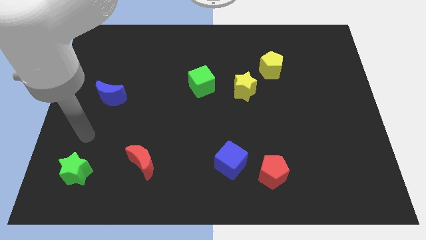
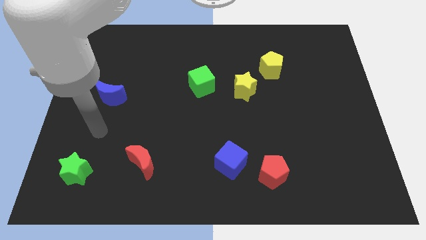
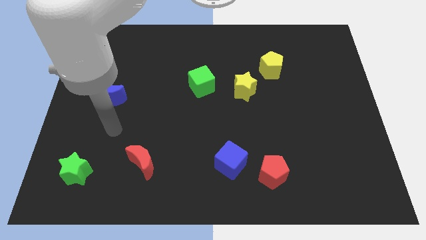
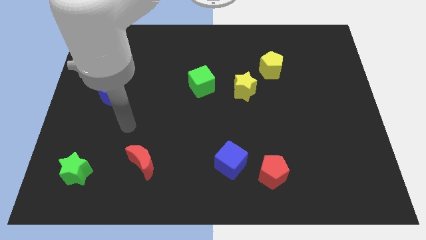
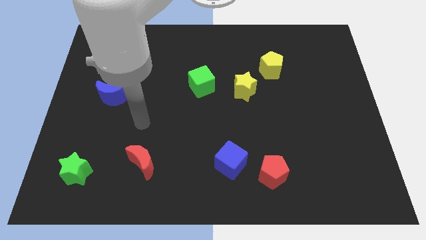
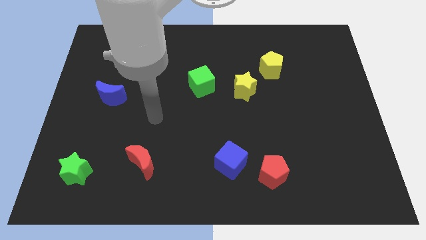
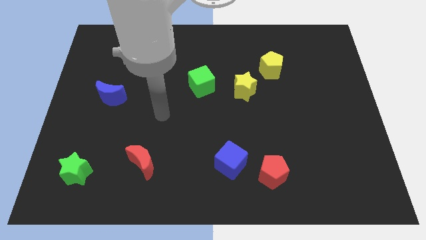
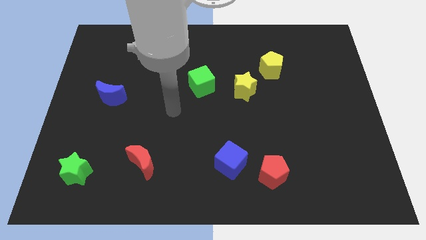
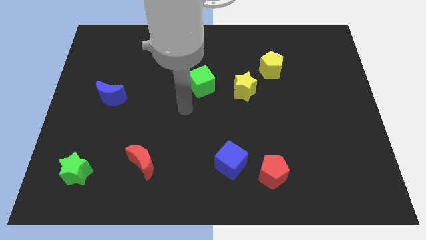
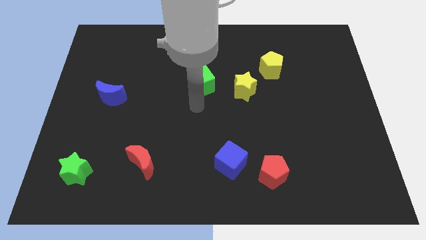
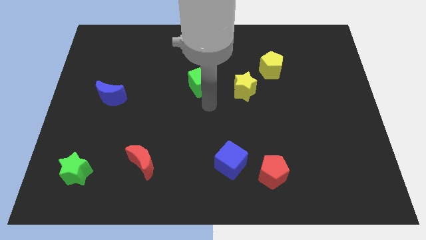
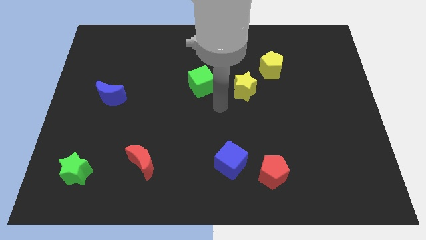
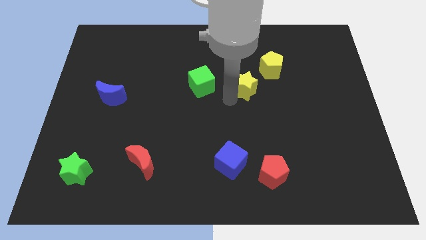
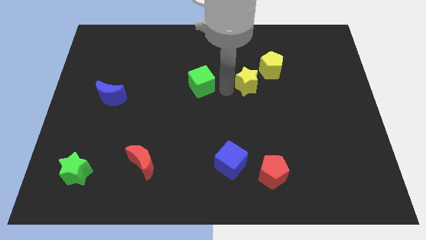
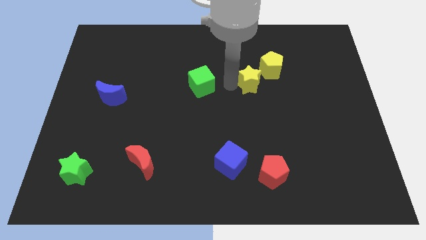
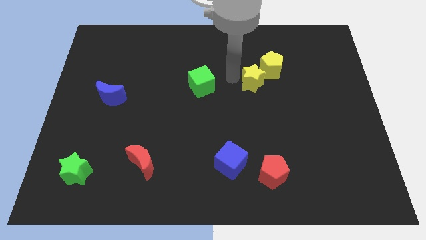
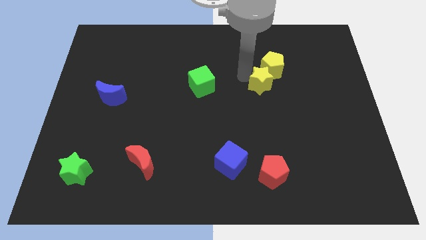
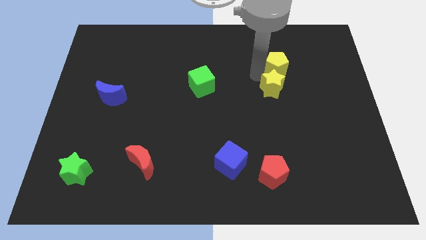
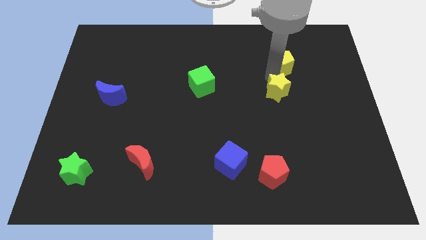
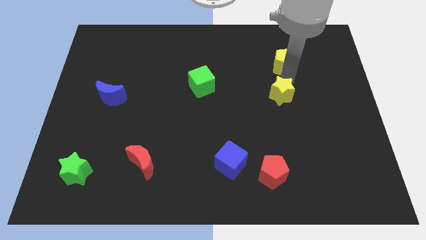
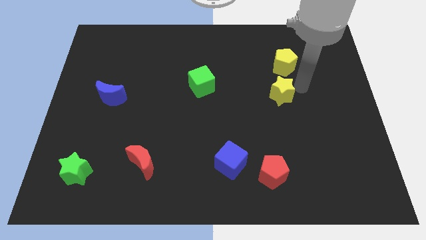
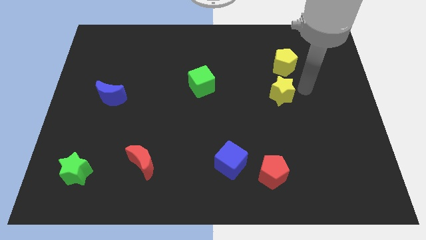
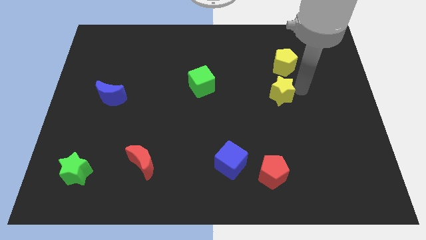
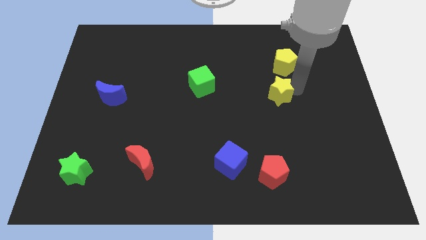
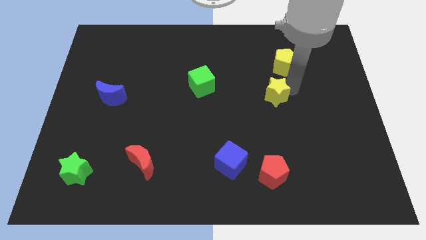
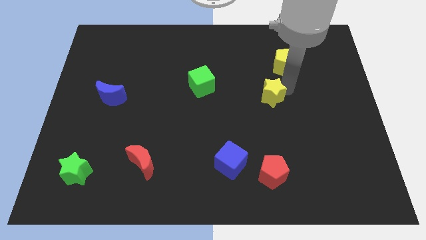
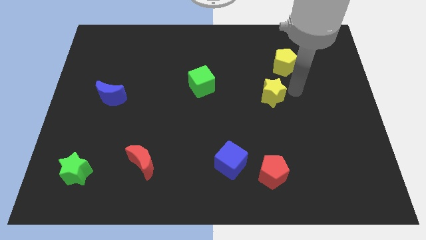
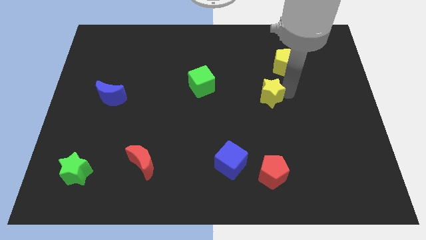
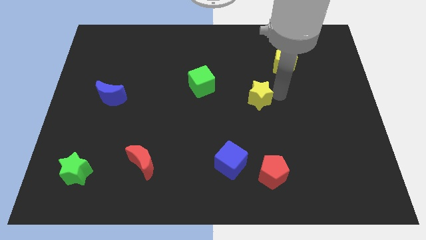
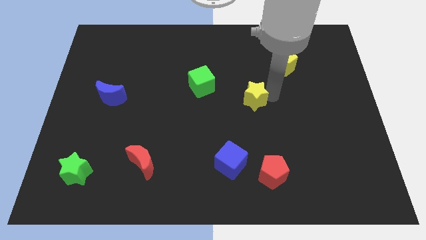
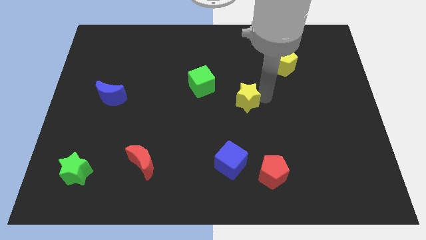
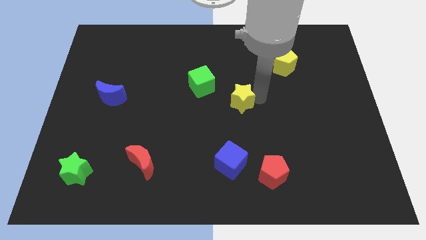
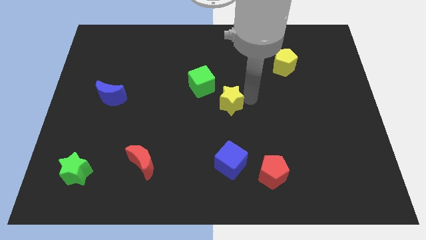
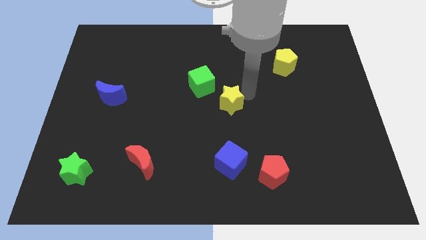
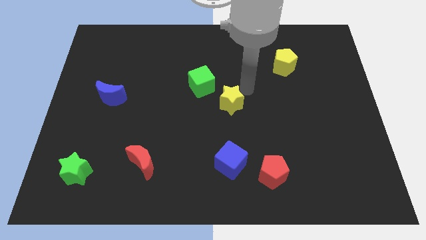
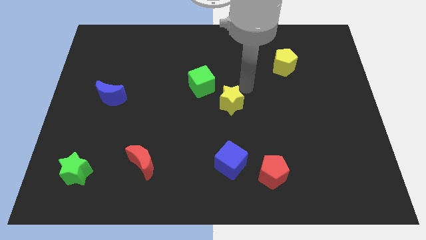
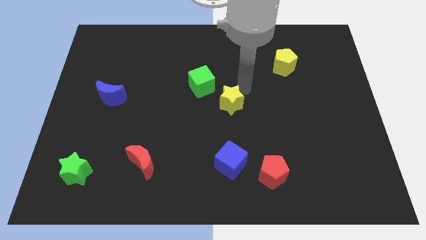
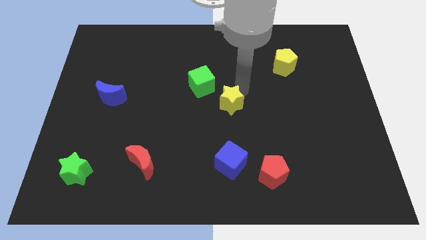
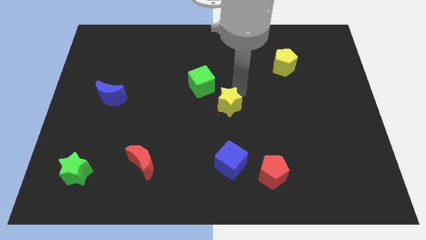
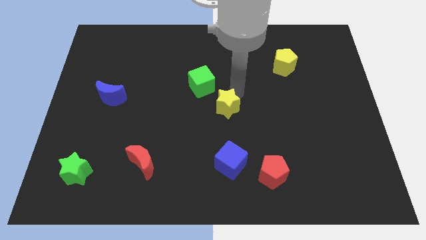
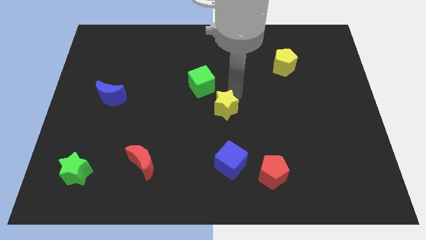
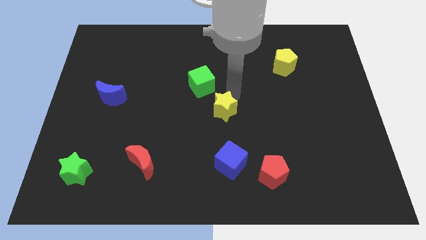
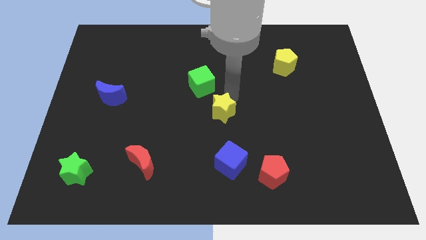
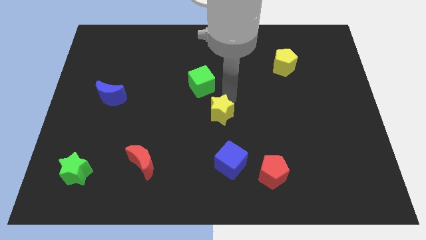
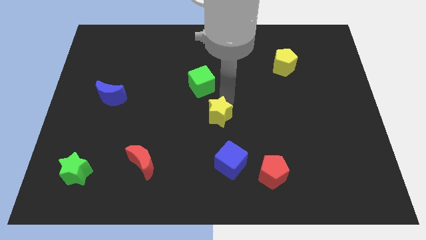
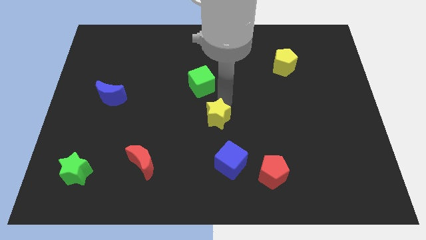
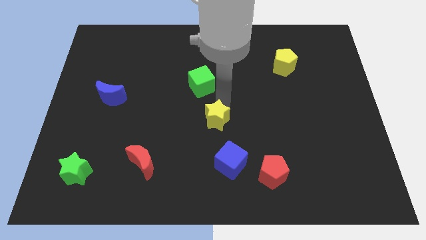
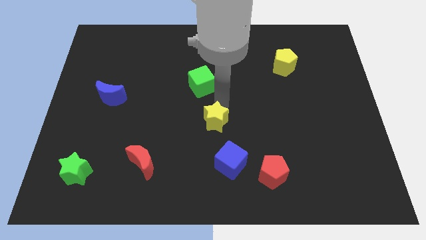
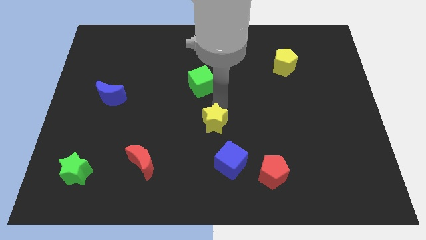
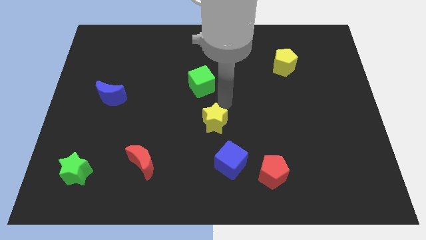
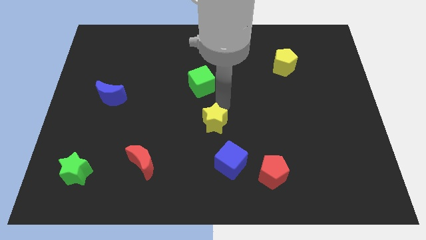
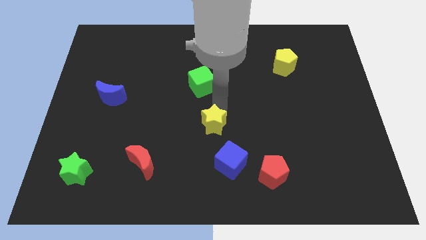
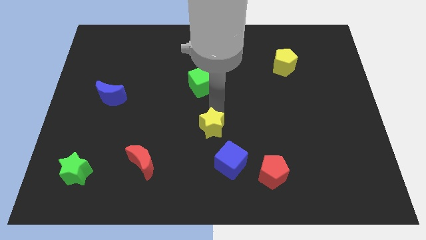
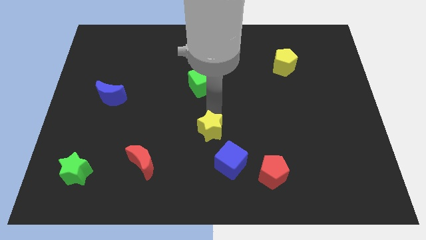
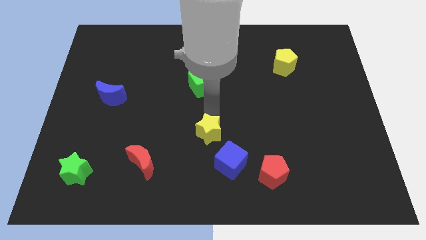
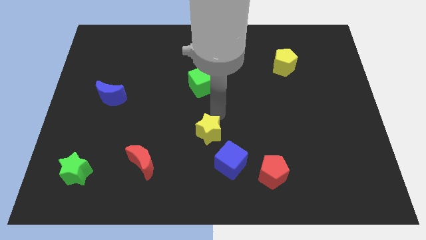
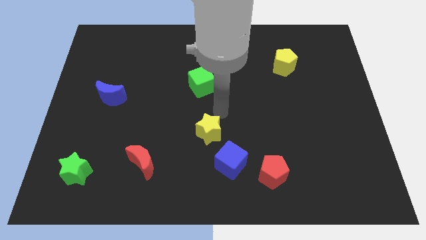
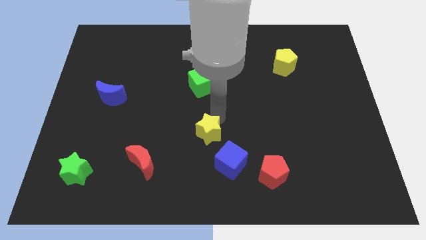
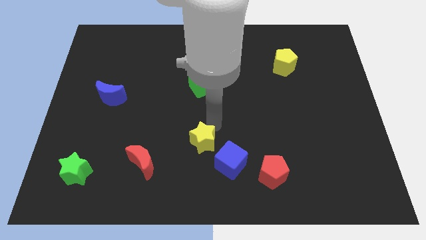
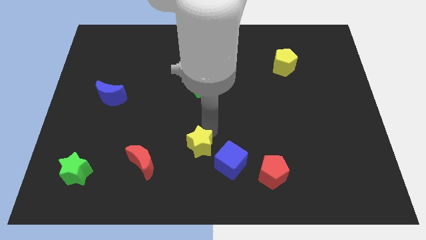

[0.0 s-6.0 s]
put the yellow star to the right of the red moon

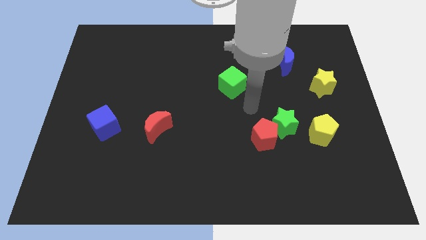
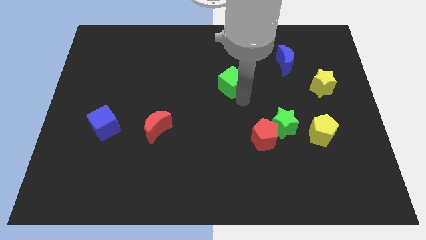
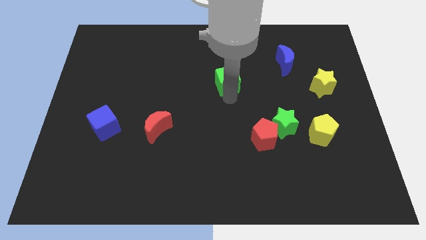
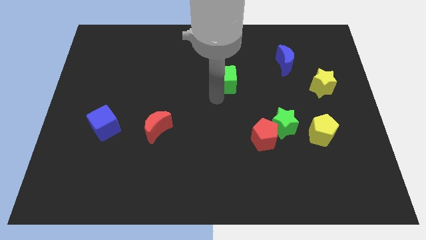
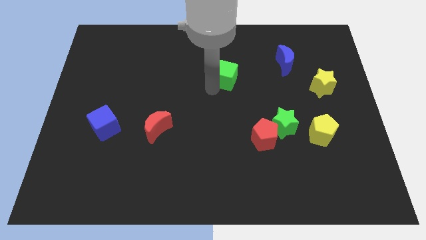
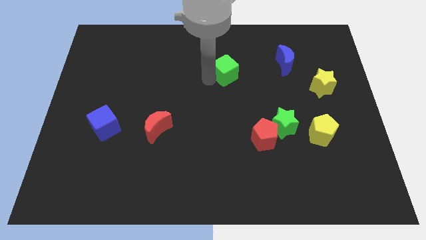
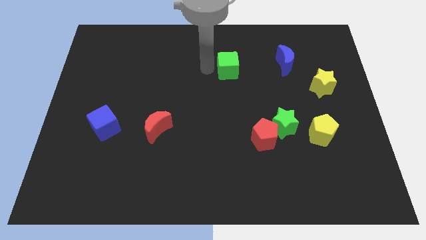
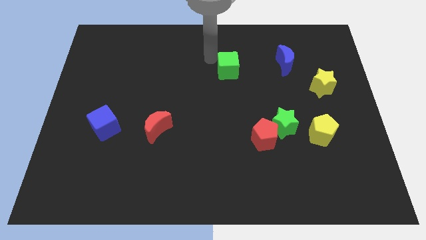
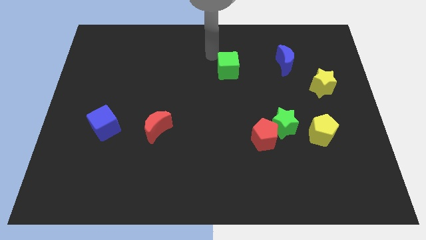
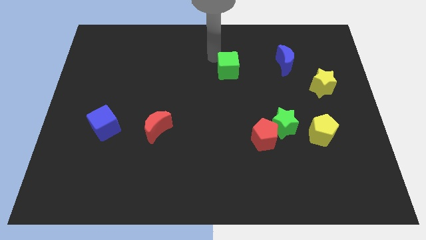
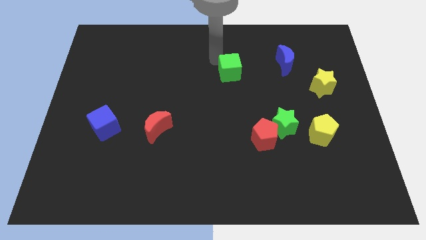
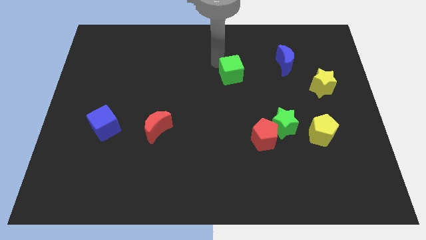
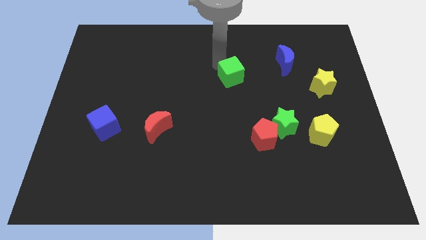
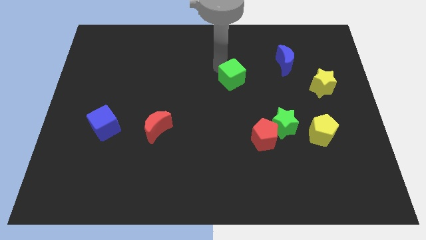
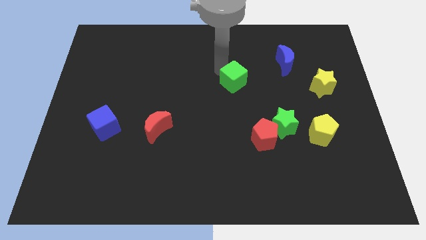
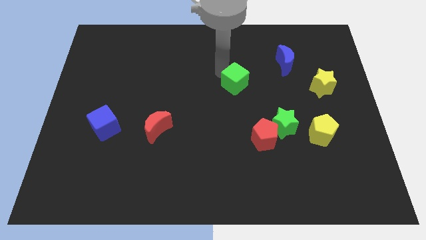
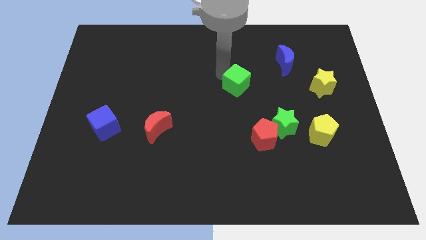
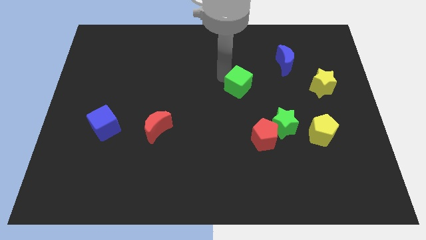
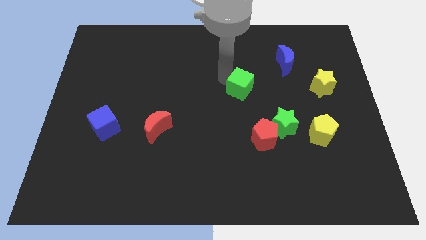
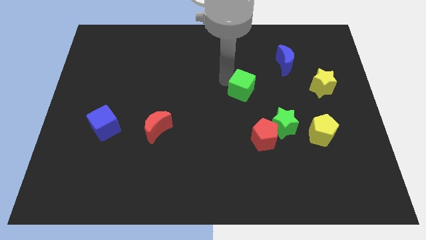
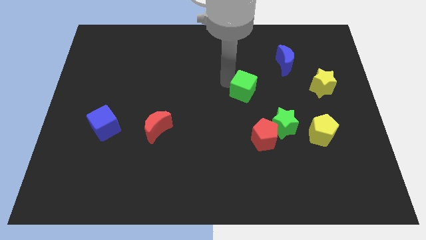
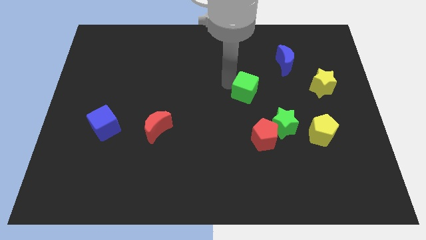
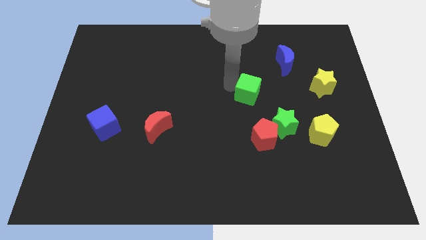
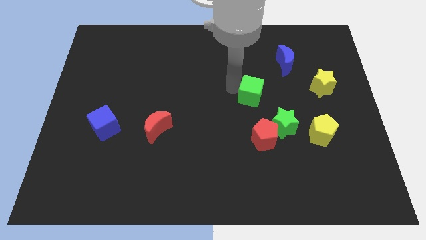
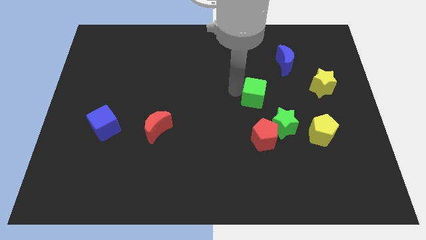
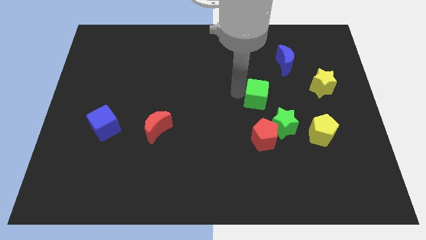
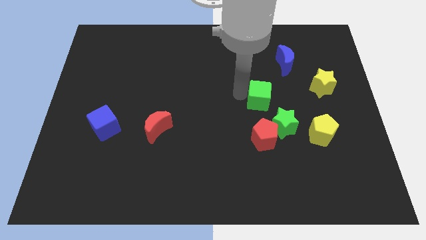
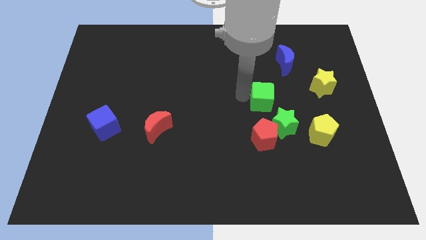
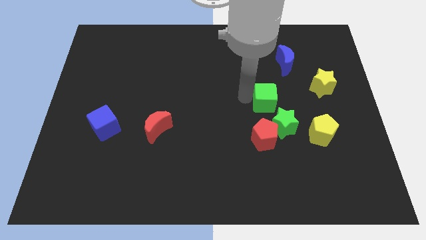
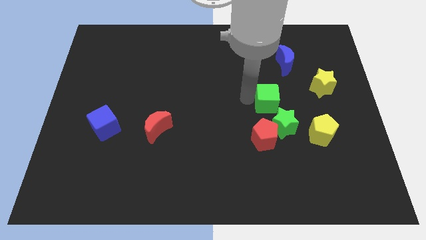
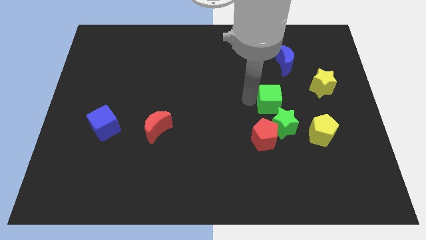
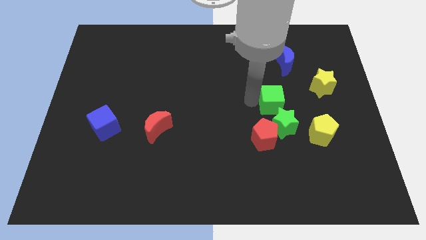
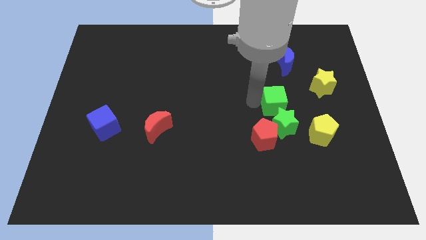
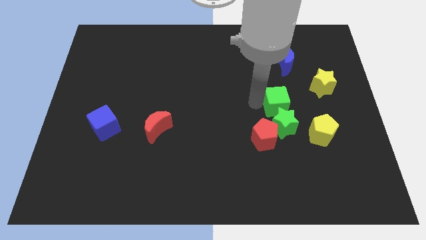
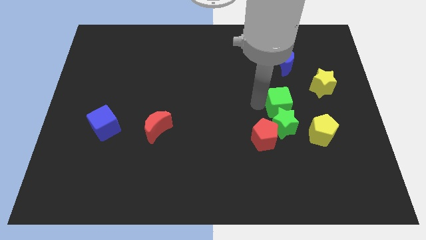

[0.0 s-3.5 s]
put the green cube to the top right of the green star
